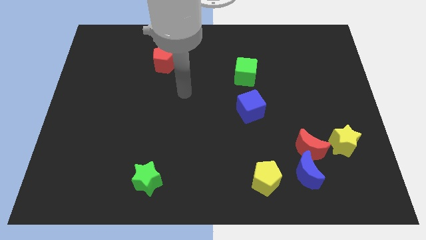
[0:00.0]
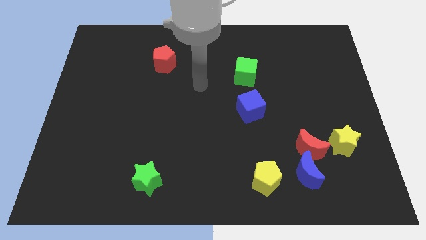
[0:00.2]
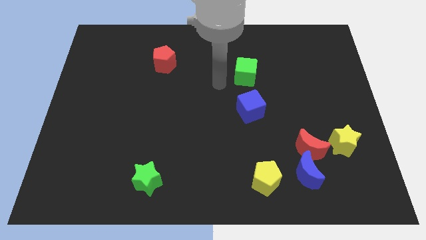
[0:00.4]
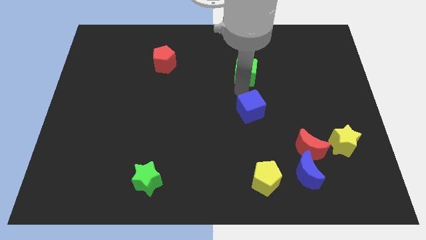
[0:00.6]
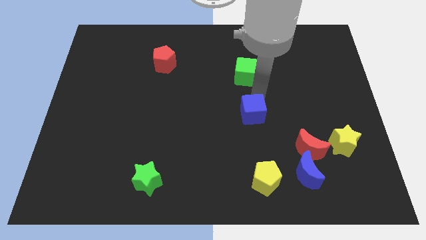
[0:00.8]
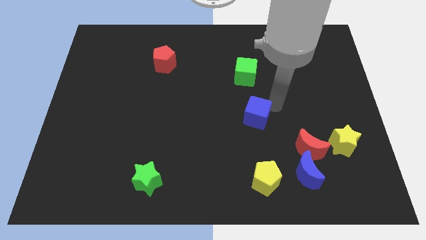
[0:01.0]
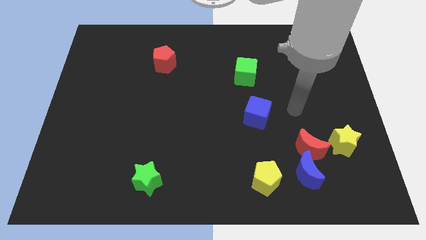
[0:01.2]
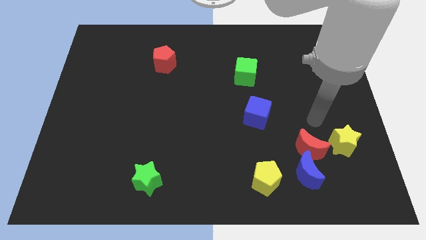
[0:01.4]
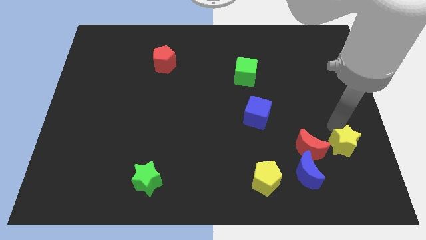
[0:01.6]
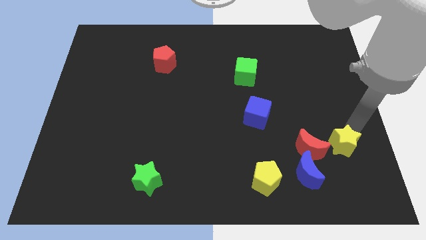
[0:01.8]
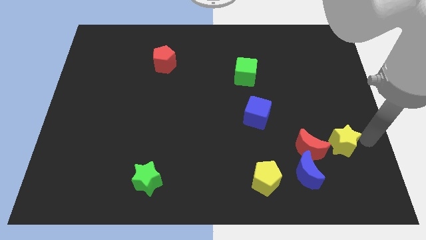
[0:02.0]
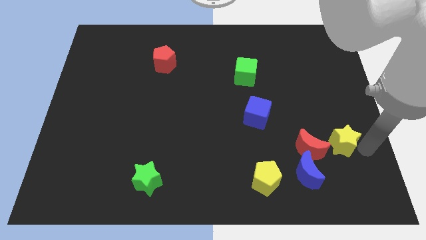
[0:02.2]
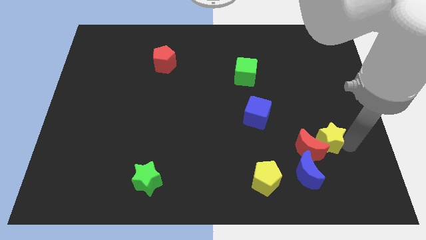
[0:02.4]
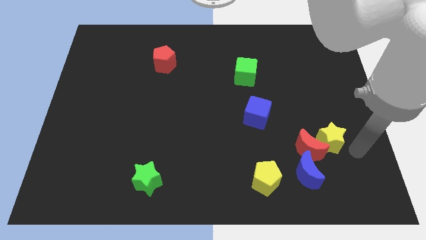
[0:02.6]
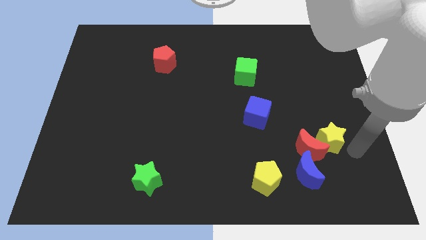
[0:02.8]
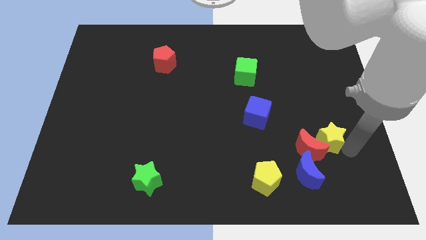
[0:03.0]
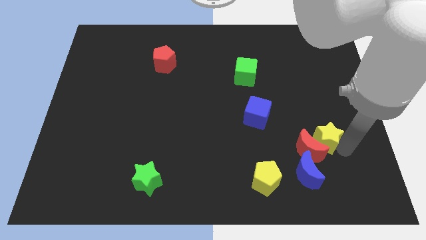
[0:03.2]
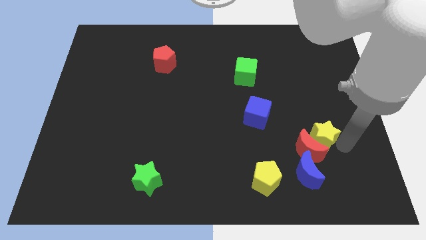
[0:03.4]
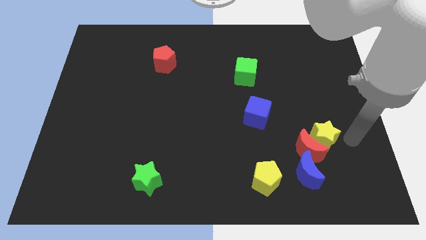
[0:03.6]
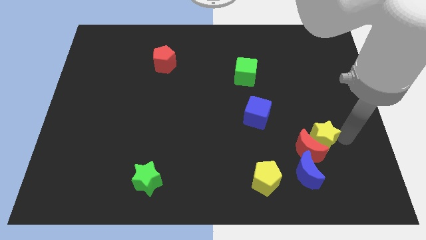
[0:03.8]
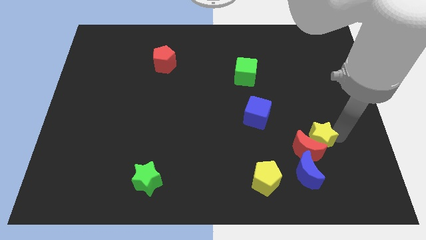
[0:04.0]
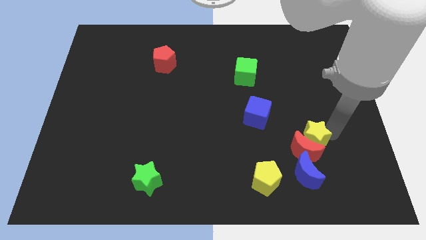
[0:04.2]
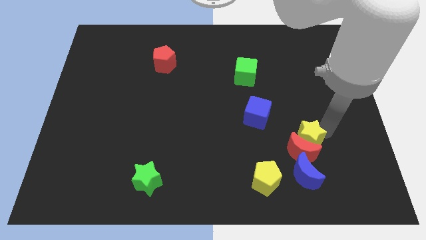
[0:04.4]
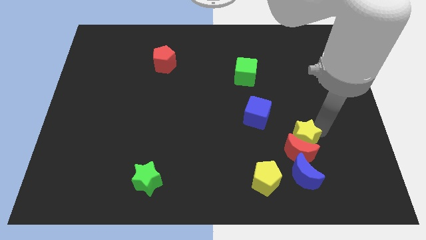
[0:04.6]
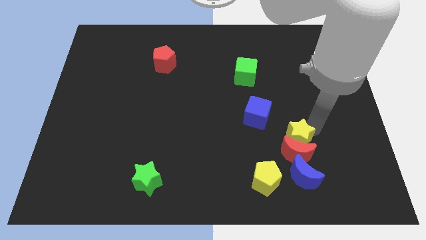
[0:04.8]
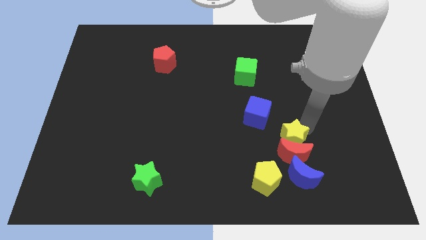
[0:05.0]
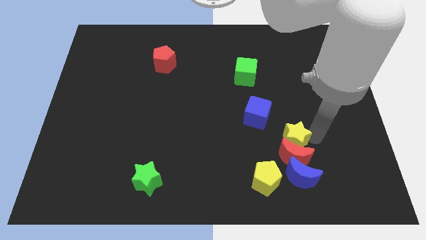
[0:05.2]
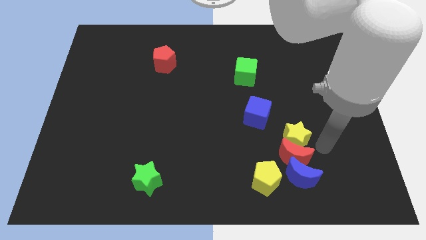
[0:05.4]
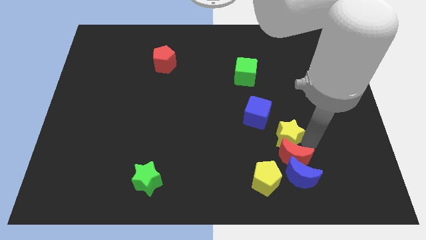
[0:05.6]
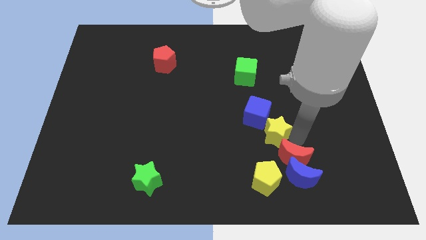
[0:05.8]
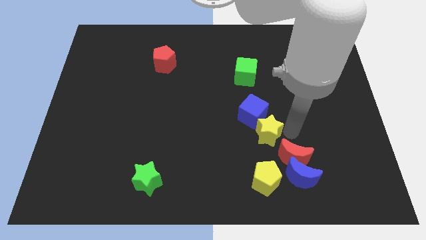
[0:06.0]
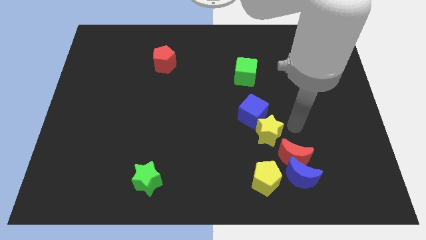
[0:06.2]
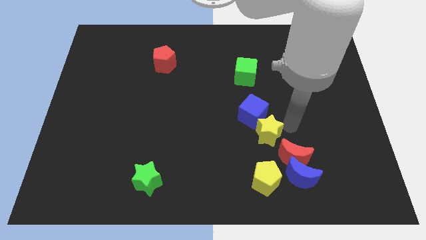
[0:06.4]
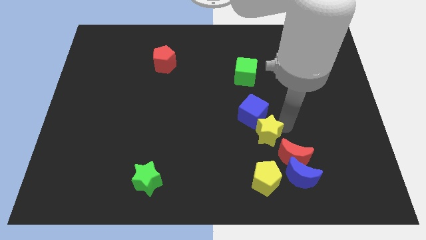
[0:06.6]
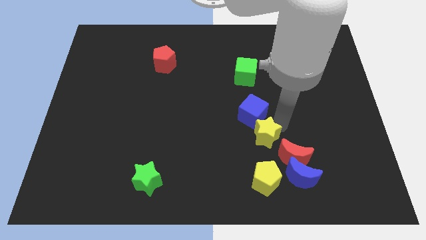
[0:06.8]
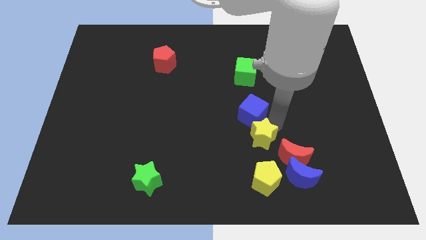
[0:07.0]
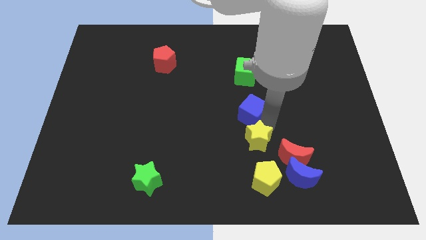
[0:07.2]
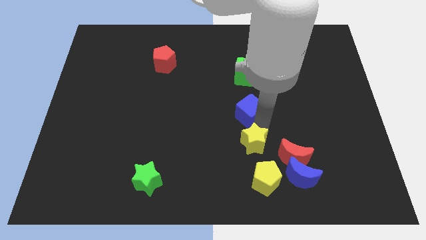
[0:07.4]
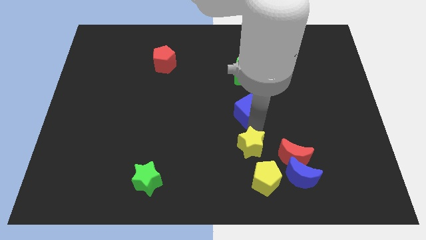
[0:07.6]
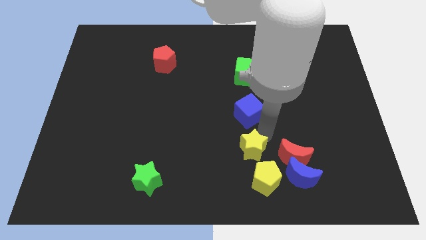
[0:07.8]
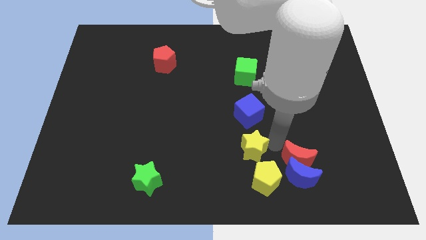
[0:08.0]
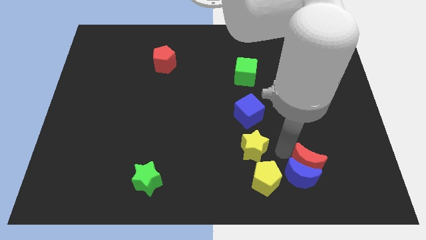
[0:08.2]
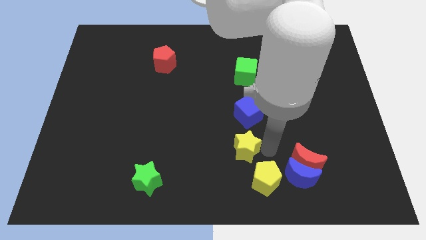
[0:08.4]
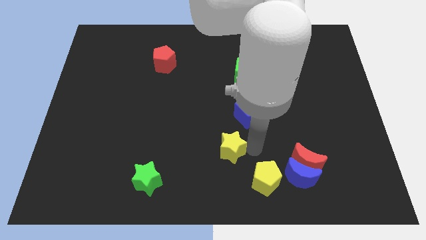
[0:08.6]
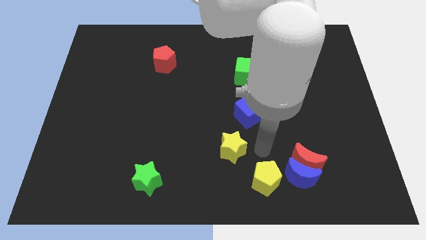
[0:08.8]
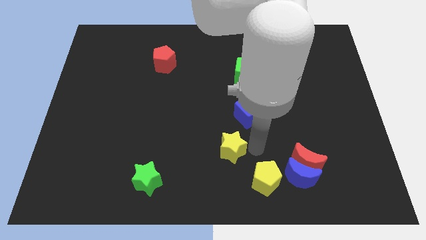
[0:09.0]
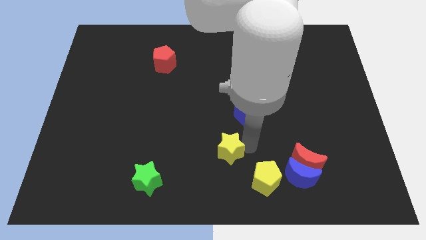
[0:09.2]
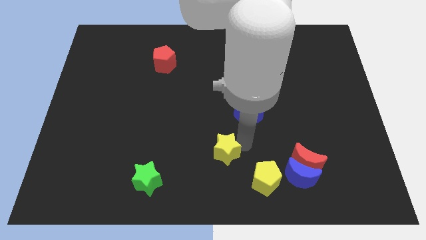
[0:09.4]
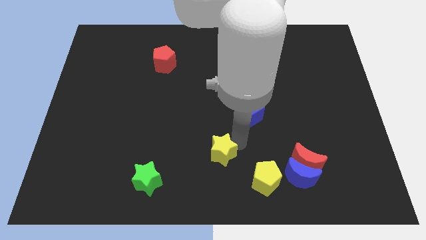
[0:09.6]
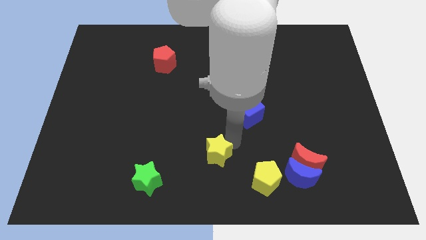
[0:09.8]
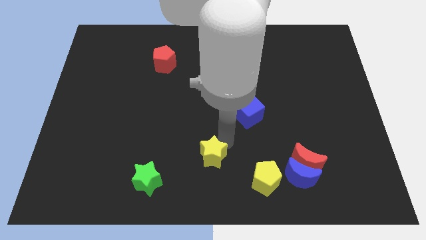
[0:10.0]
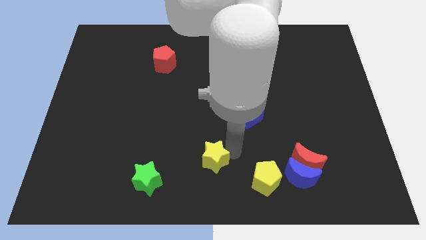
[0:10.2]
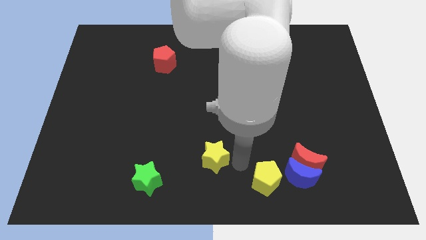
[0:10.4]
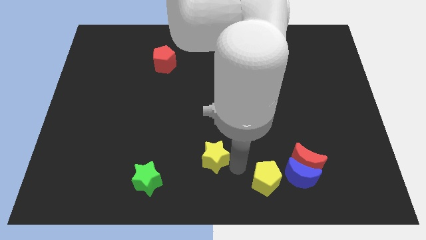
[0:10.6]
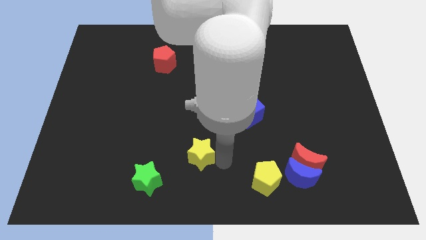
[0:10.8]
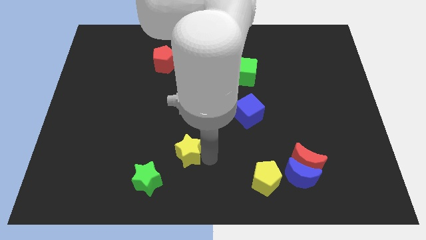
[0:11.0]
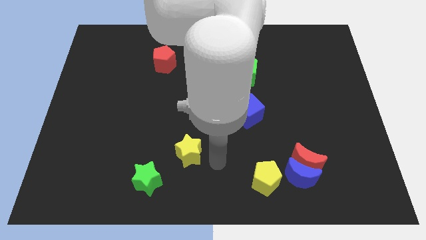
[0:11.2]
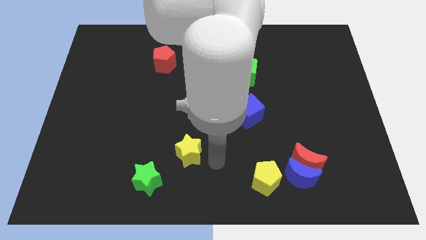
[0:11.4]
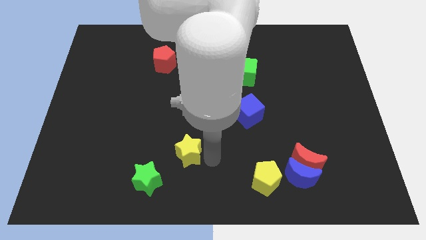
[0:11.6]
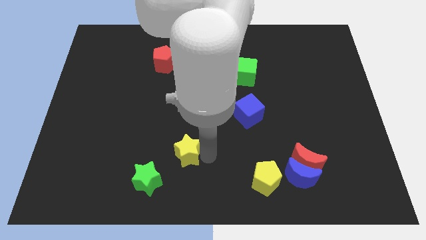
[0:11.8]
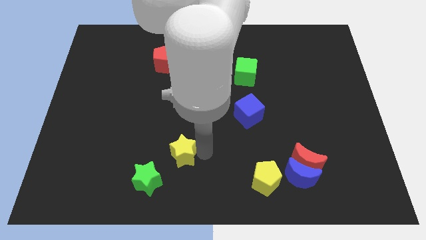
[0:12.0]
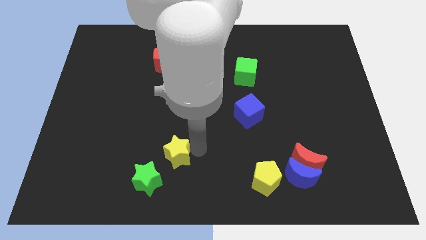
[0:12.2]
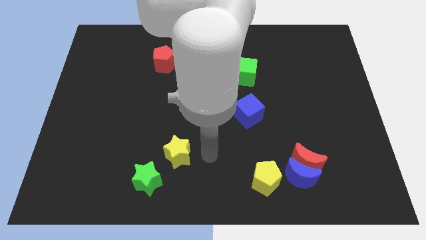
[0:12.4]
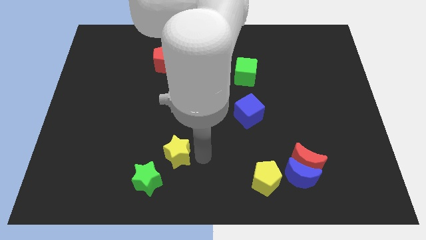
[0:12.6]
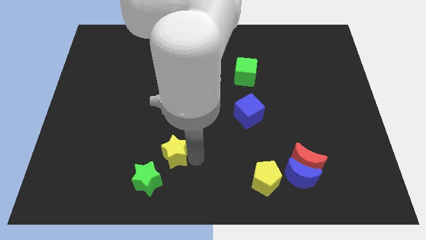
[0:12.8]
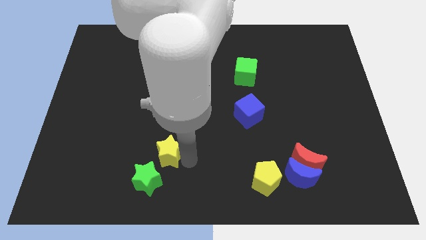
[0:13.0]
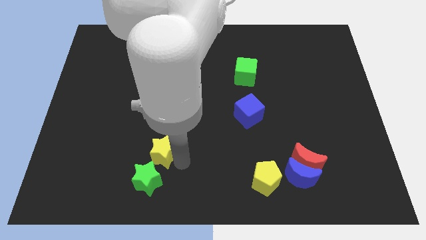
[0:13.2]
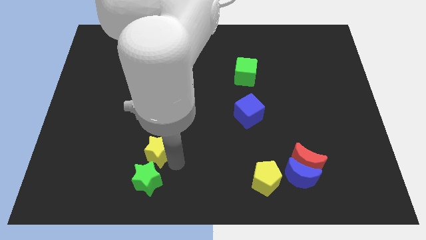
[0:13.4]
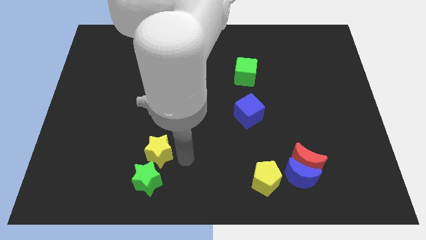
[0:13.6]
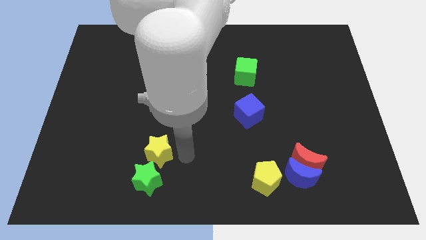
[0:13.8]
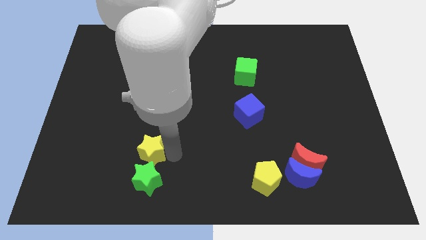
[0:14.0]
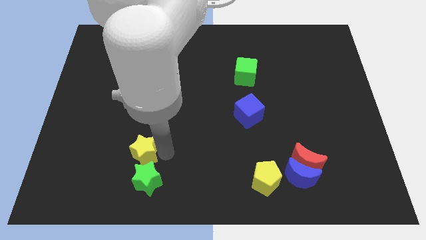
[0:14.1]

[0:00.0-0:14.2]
put the yellow star diagonally up and to the left of the green star

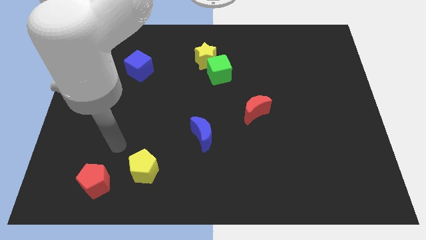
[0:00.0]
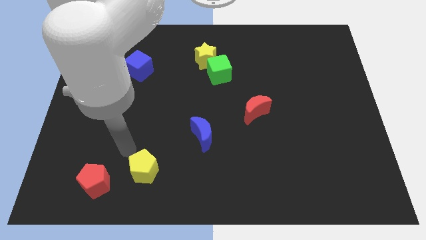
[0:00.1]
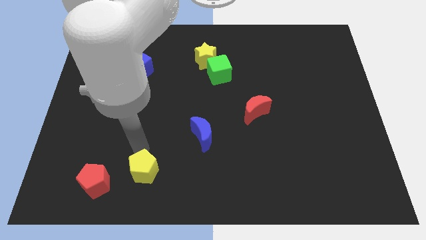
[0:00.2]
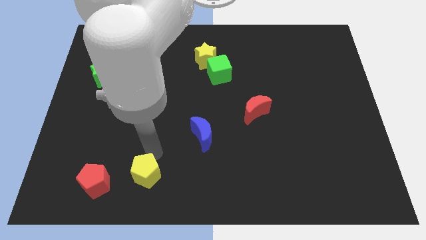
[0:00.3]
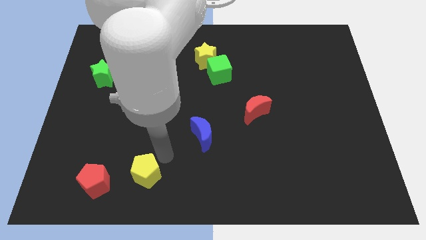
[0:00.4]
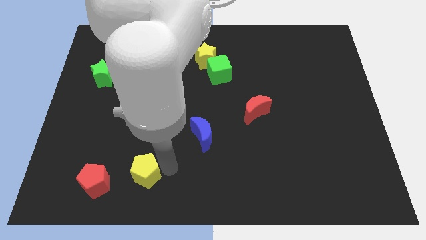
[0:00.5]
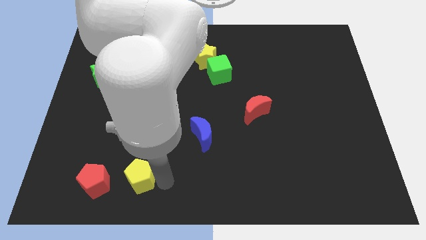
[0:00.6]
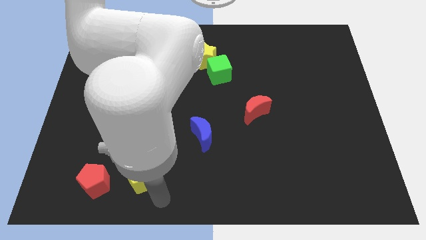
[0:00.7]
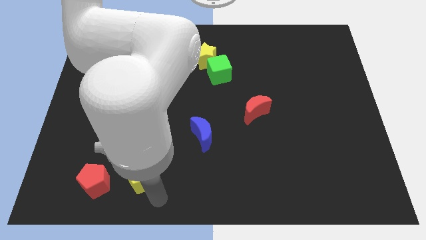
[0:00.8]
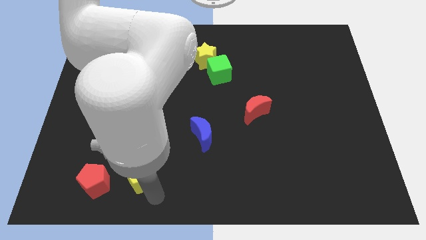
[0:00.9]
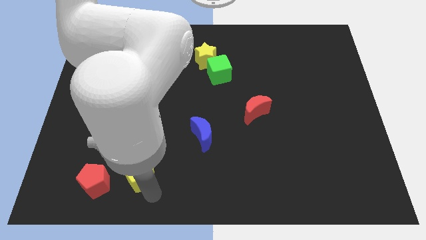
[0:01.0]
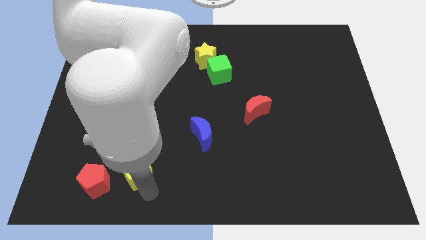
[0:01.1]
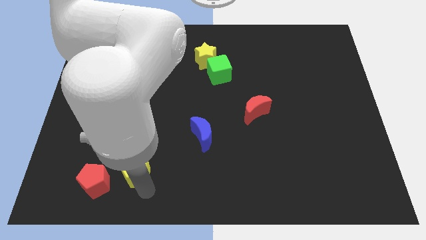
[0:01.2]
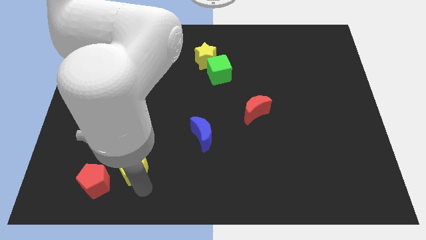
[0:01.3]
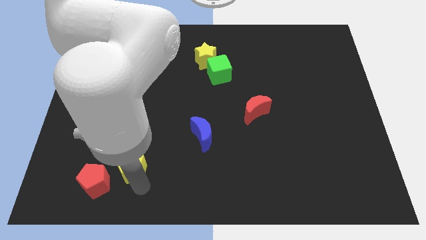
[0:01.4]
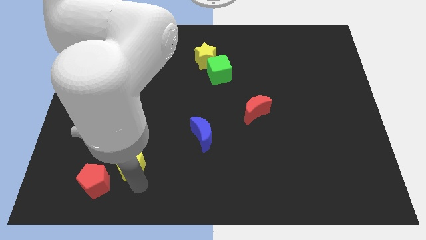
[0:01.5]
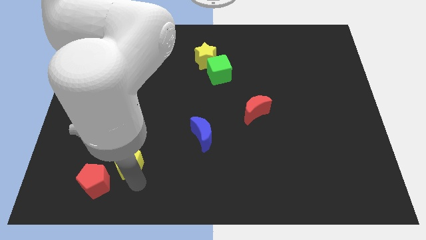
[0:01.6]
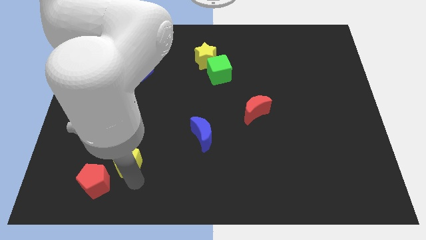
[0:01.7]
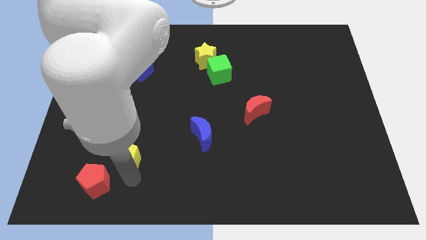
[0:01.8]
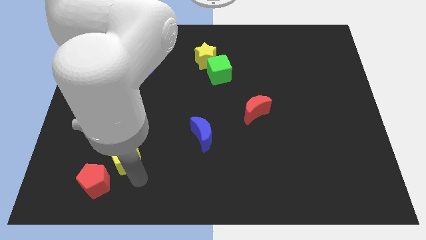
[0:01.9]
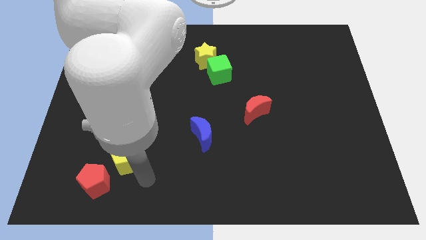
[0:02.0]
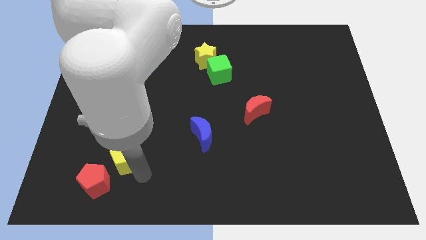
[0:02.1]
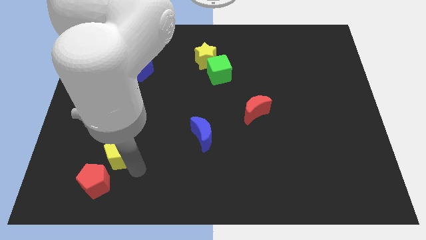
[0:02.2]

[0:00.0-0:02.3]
move the yellow pentagon above the red pentagon
